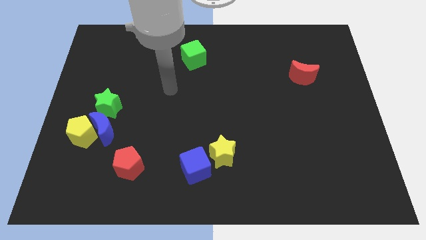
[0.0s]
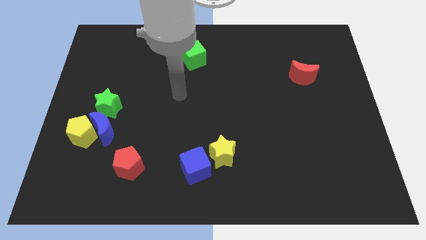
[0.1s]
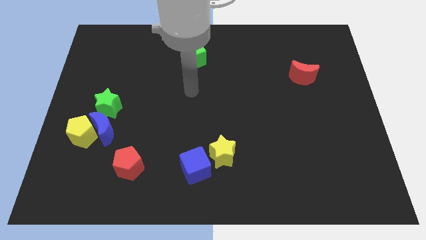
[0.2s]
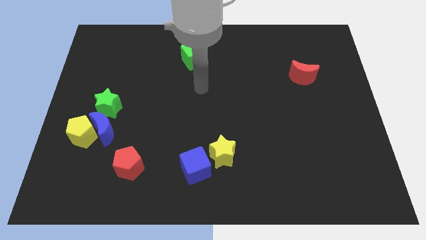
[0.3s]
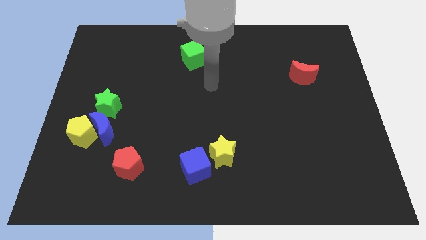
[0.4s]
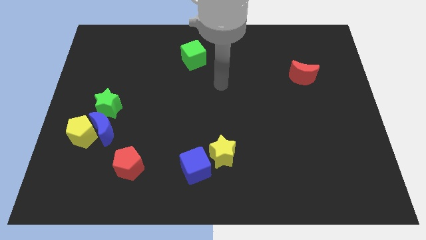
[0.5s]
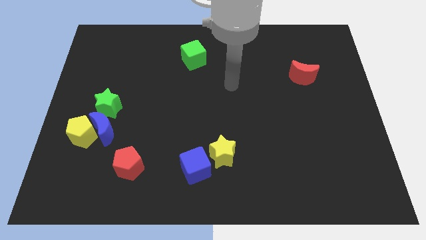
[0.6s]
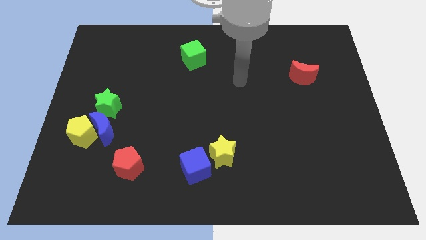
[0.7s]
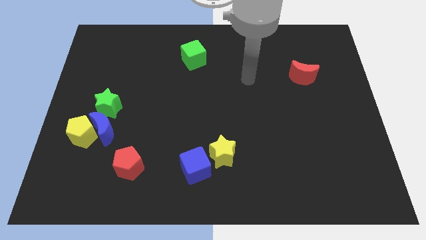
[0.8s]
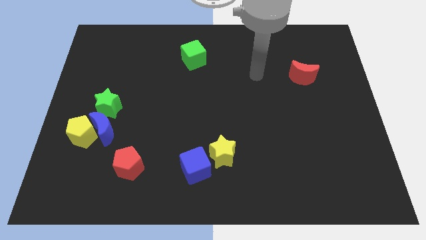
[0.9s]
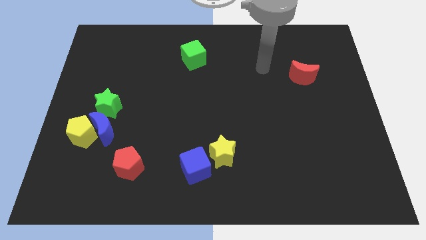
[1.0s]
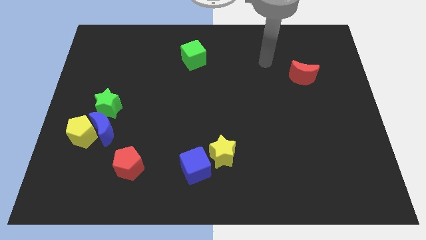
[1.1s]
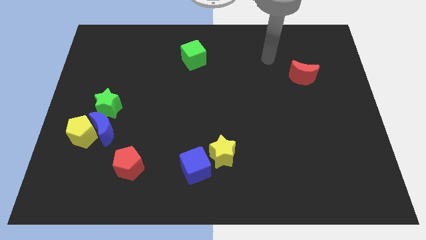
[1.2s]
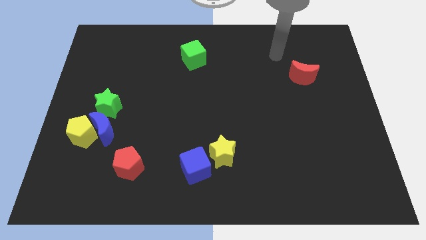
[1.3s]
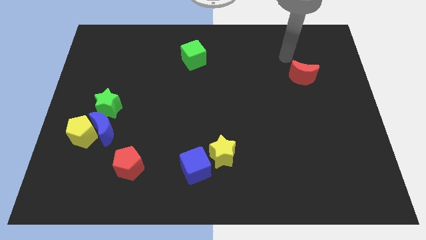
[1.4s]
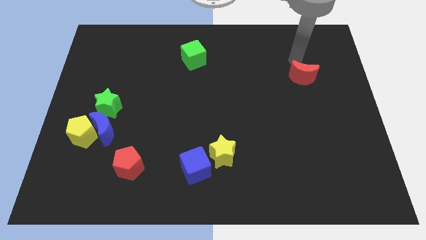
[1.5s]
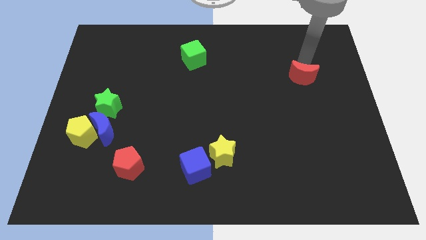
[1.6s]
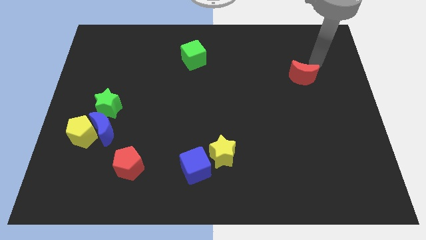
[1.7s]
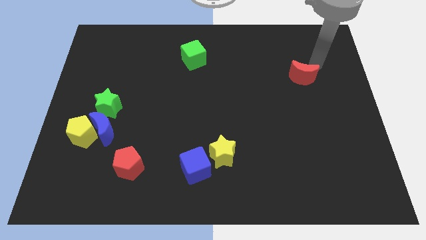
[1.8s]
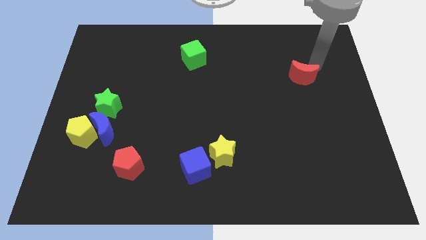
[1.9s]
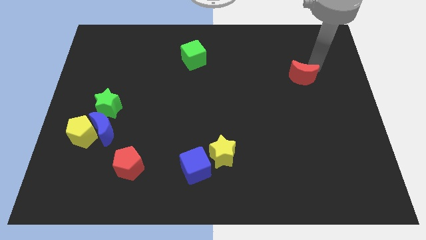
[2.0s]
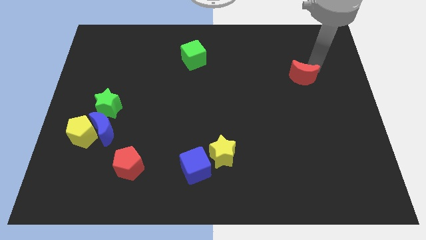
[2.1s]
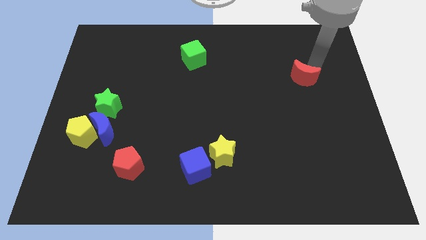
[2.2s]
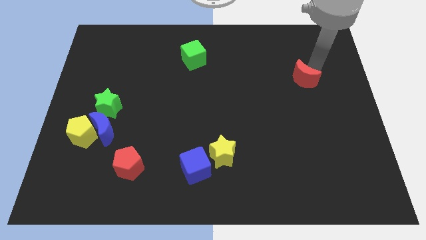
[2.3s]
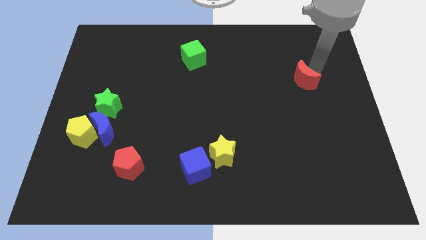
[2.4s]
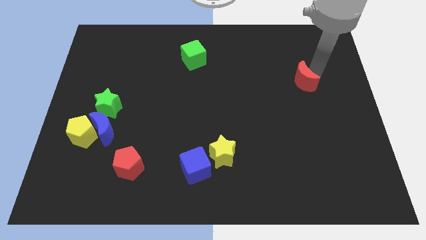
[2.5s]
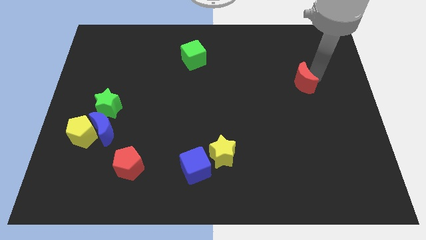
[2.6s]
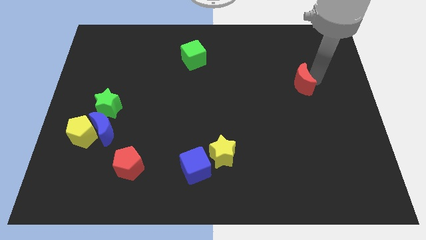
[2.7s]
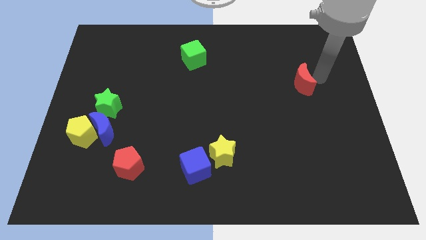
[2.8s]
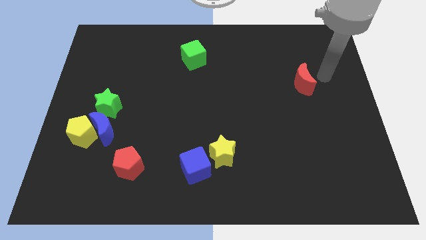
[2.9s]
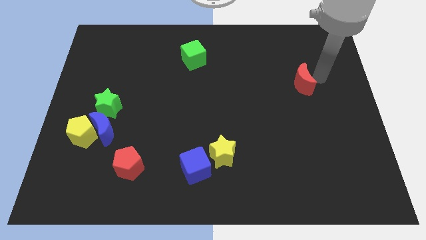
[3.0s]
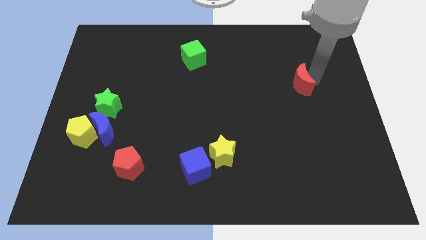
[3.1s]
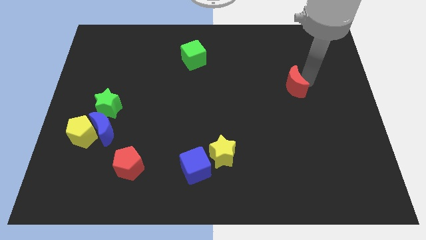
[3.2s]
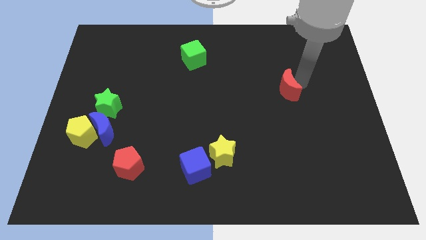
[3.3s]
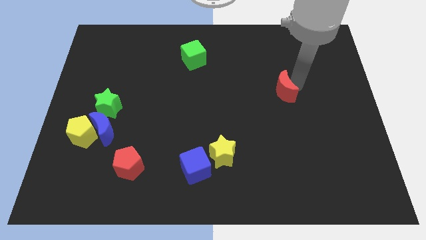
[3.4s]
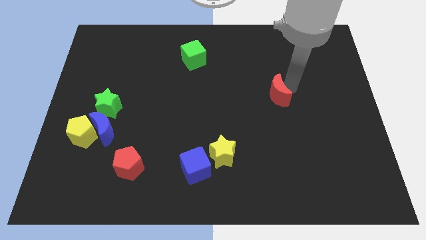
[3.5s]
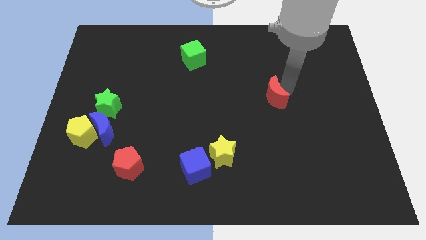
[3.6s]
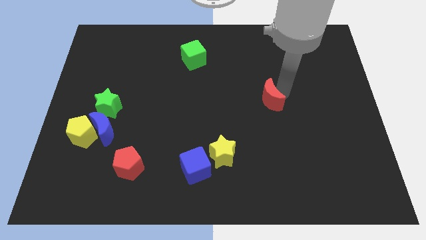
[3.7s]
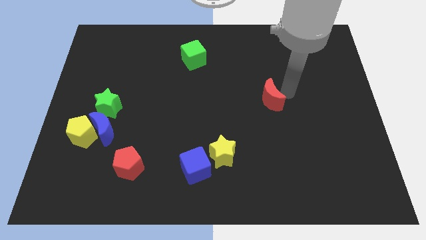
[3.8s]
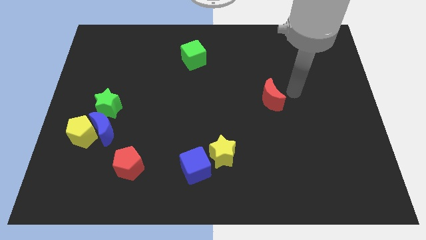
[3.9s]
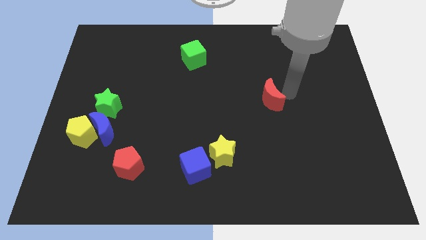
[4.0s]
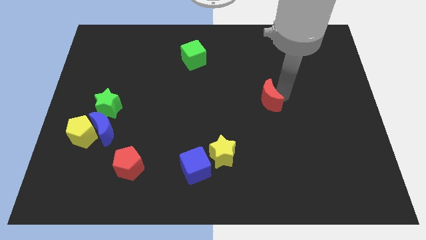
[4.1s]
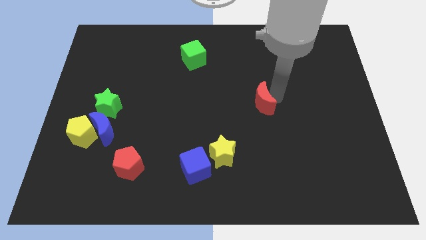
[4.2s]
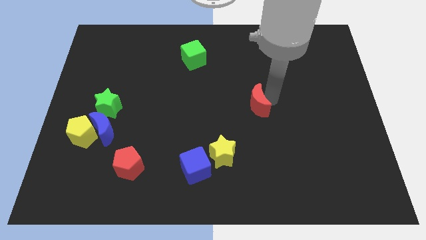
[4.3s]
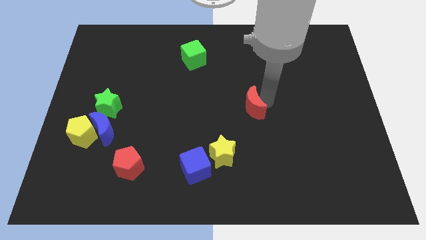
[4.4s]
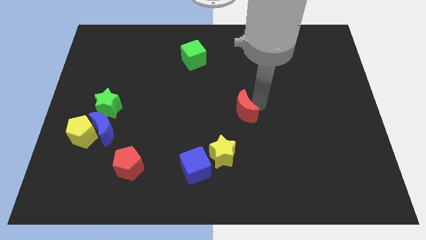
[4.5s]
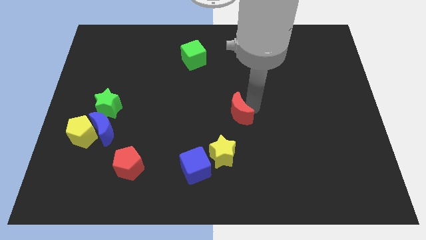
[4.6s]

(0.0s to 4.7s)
slide the red moon to the top of the yellow star

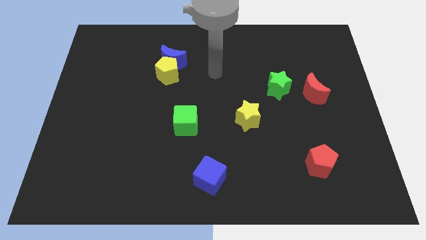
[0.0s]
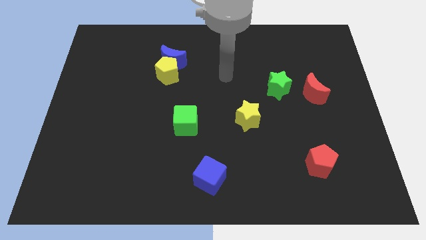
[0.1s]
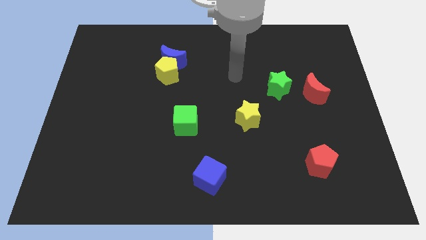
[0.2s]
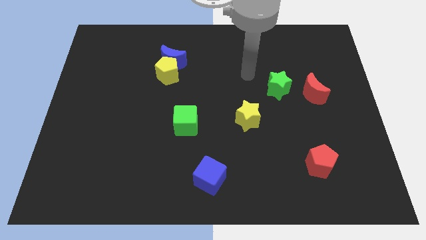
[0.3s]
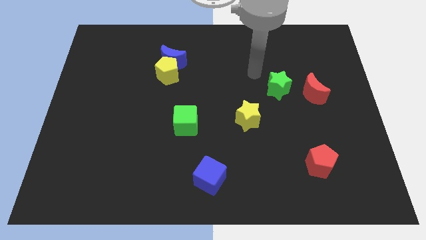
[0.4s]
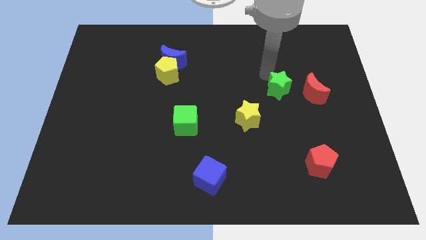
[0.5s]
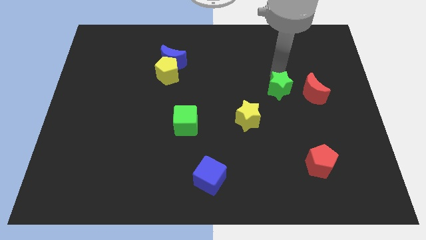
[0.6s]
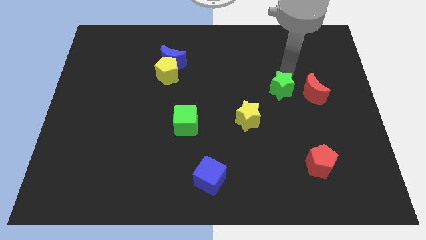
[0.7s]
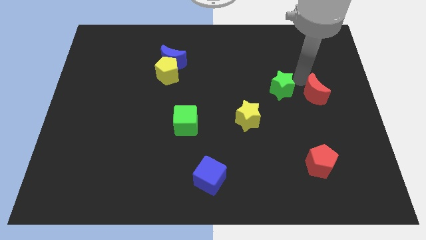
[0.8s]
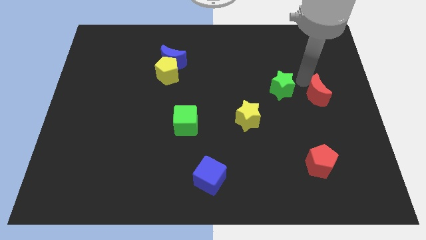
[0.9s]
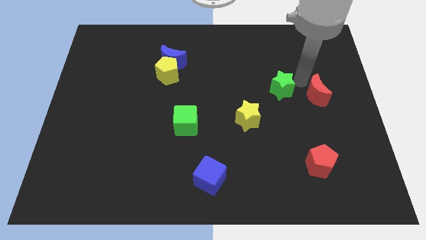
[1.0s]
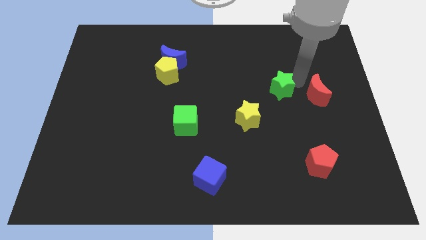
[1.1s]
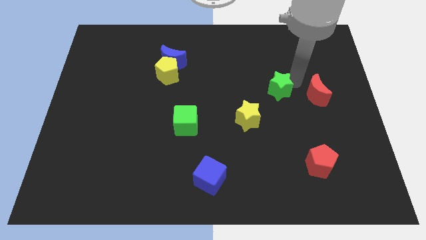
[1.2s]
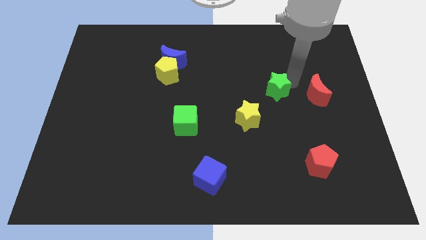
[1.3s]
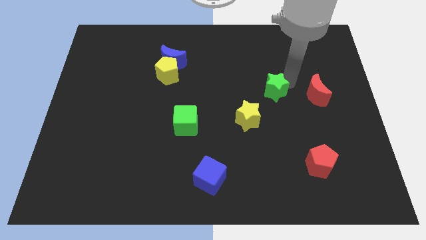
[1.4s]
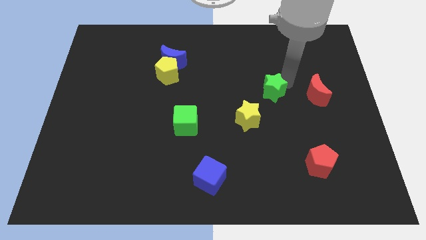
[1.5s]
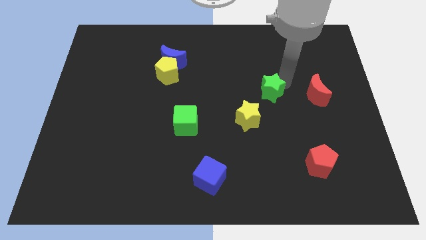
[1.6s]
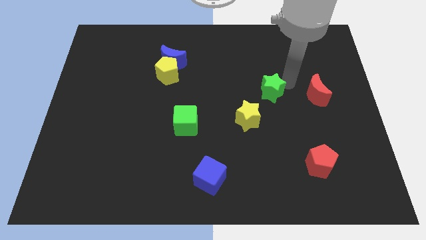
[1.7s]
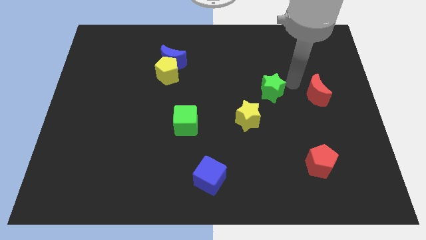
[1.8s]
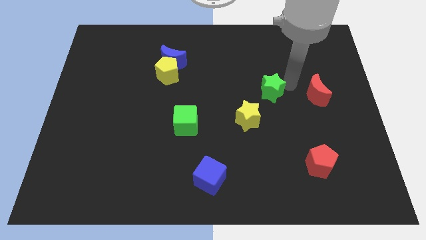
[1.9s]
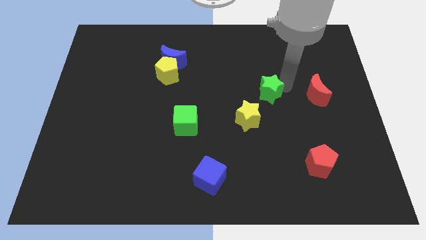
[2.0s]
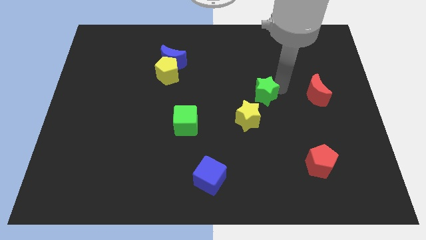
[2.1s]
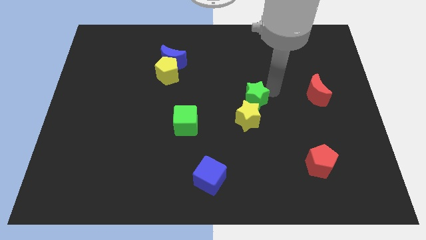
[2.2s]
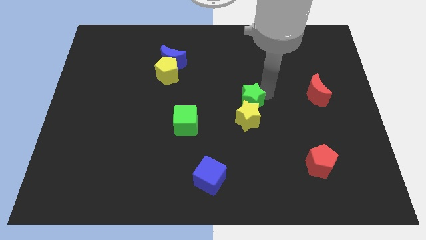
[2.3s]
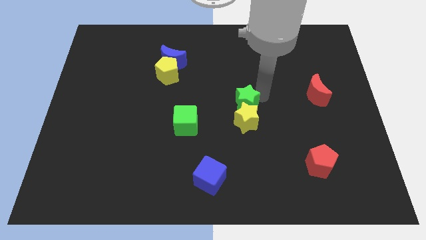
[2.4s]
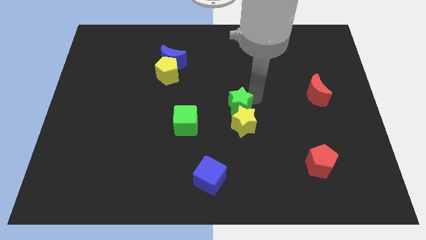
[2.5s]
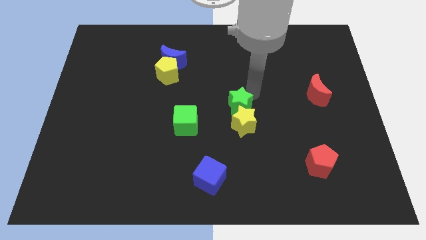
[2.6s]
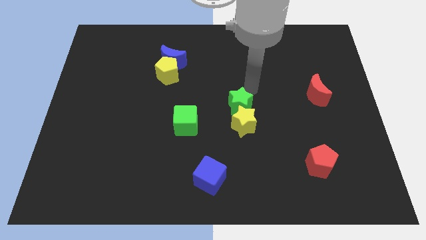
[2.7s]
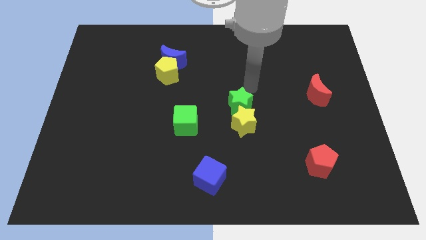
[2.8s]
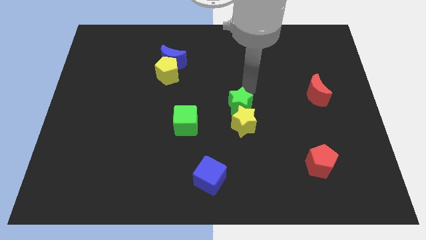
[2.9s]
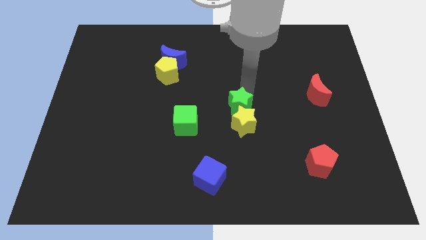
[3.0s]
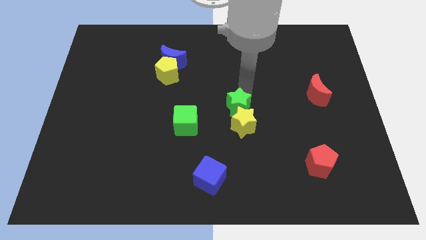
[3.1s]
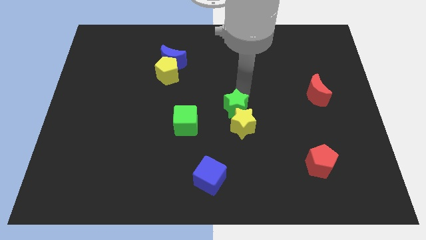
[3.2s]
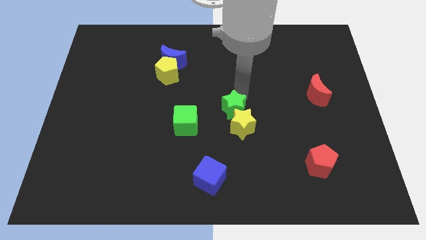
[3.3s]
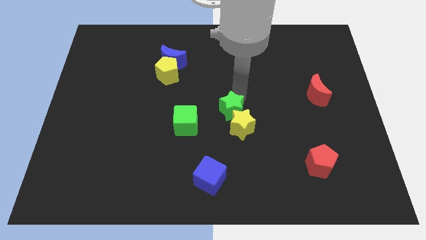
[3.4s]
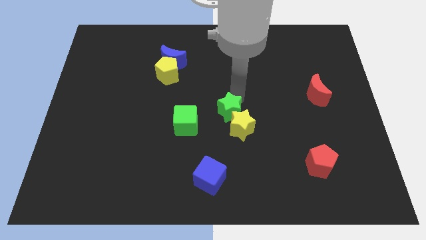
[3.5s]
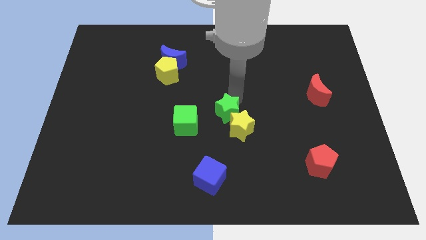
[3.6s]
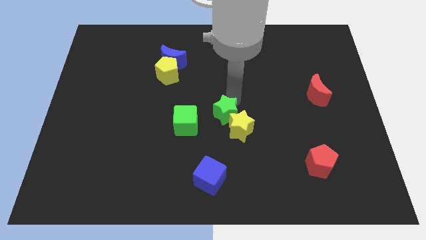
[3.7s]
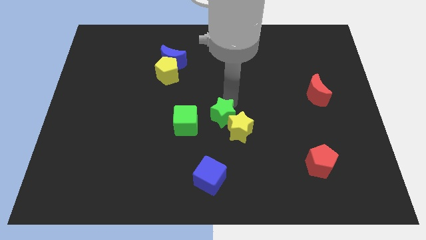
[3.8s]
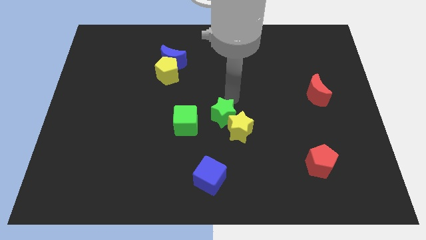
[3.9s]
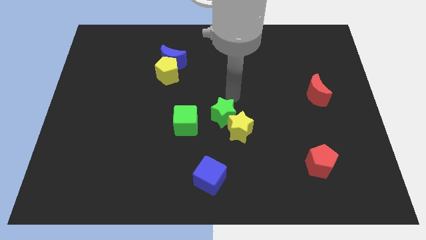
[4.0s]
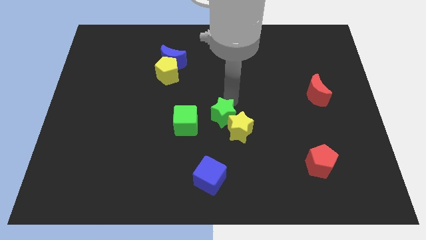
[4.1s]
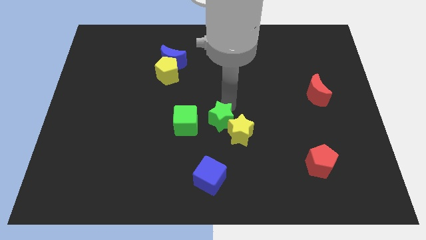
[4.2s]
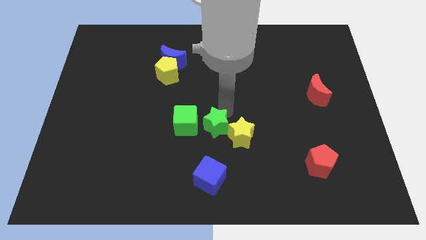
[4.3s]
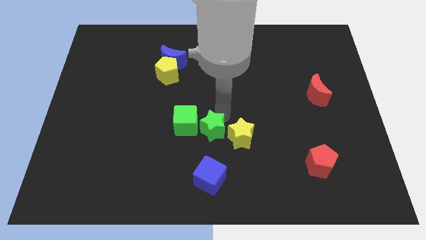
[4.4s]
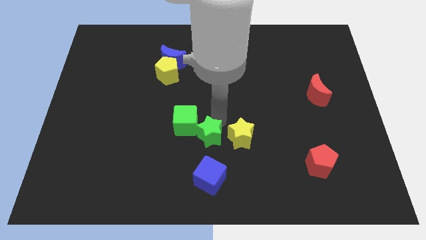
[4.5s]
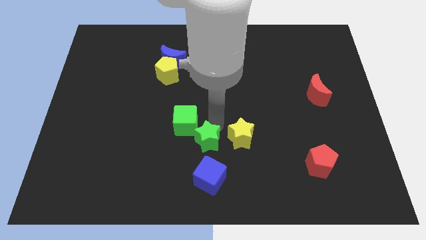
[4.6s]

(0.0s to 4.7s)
push the green star below the green cube
